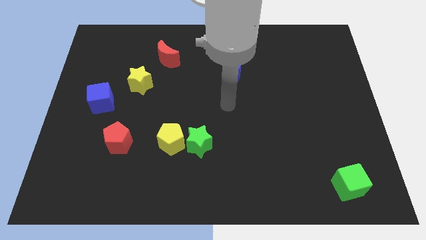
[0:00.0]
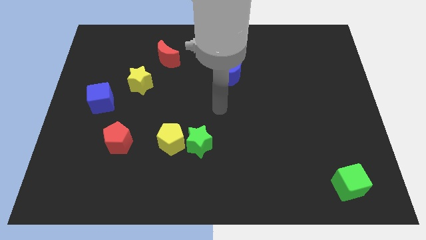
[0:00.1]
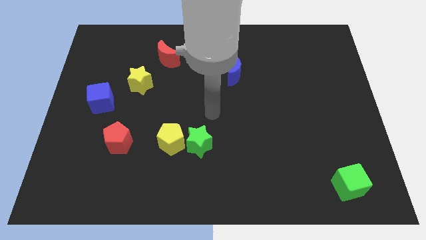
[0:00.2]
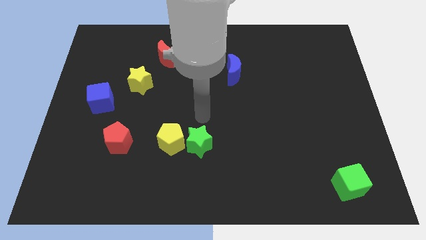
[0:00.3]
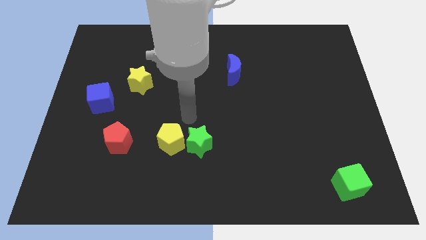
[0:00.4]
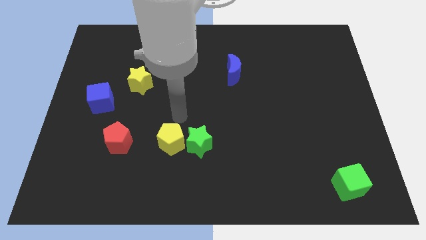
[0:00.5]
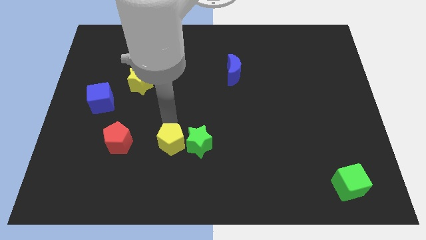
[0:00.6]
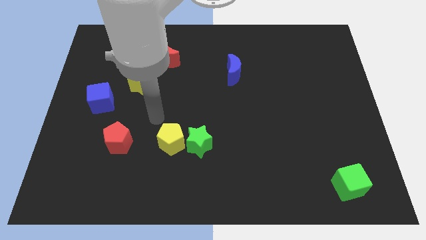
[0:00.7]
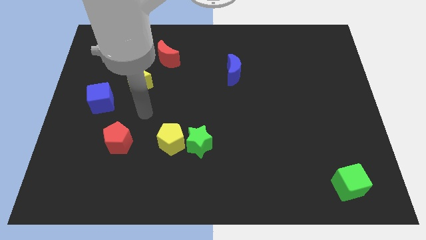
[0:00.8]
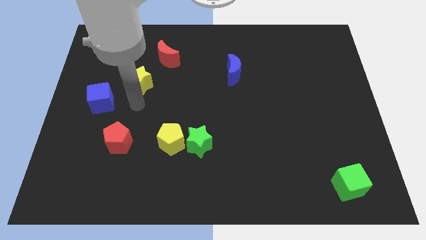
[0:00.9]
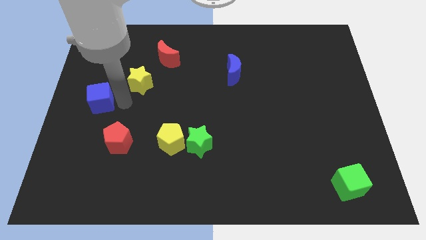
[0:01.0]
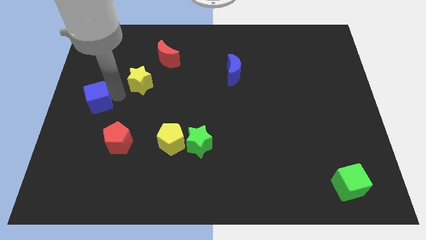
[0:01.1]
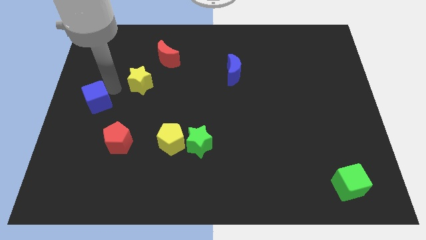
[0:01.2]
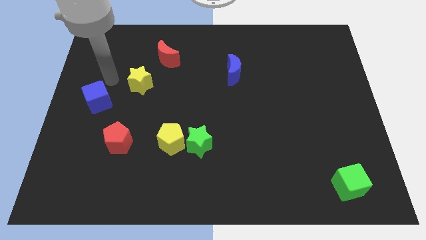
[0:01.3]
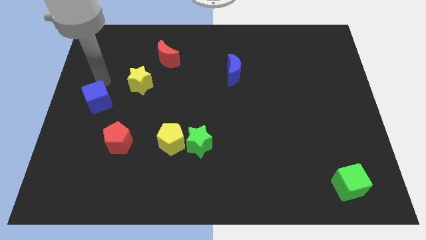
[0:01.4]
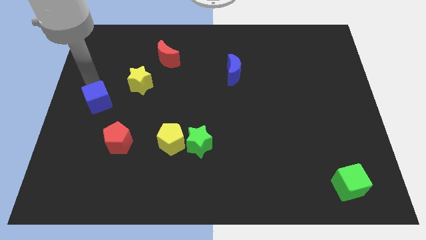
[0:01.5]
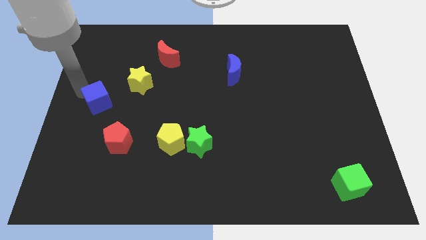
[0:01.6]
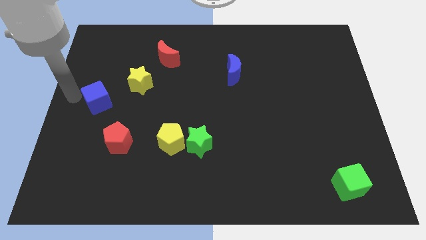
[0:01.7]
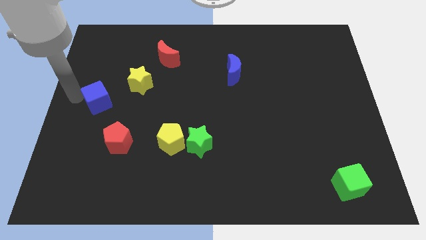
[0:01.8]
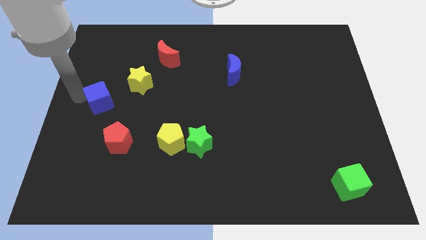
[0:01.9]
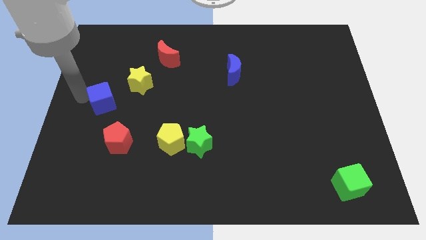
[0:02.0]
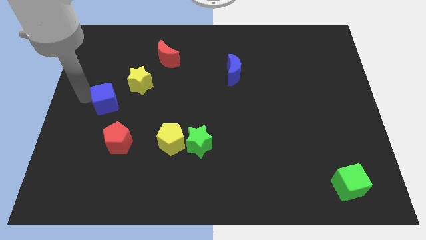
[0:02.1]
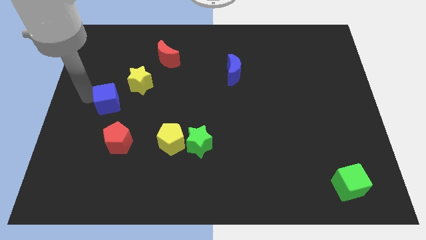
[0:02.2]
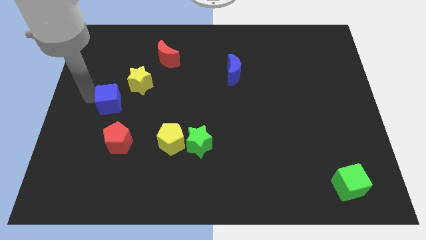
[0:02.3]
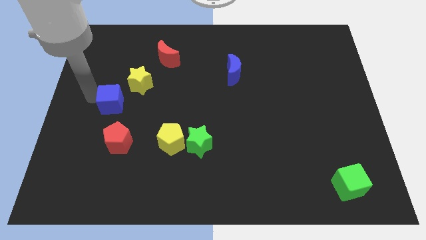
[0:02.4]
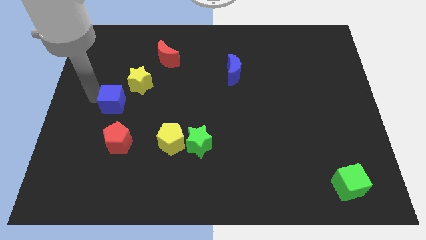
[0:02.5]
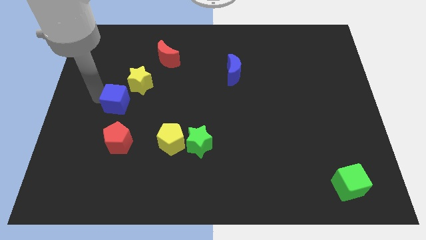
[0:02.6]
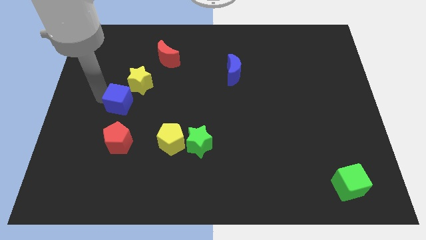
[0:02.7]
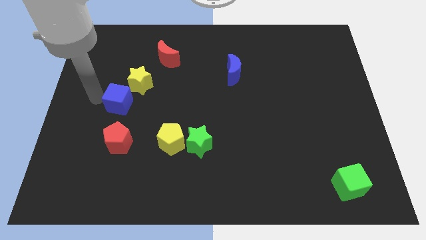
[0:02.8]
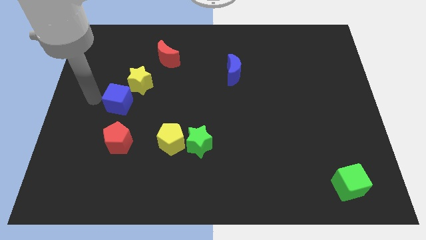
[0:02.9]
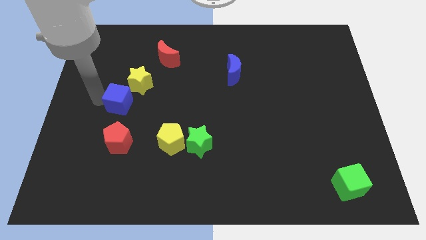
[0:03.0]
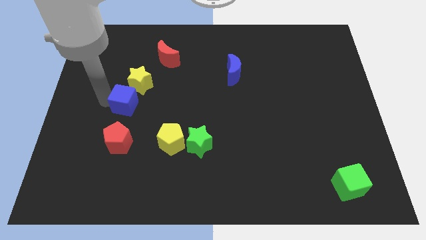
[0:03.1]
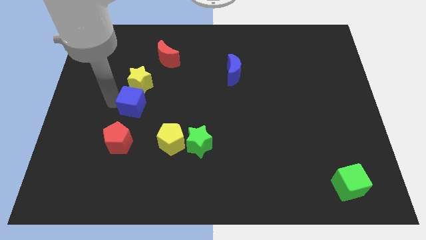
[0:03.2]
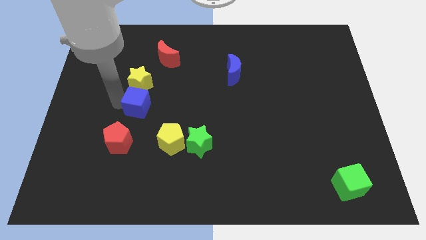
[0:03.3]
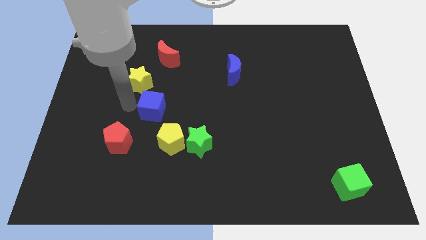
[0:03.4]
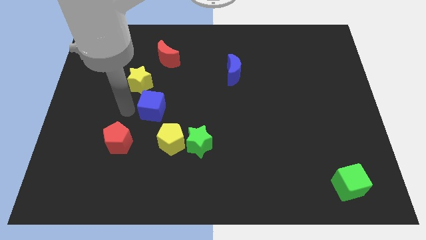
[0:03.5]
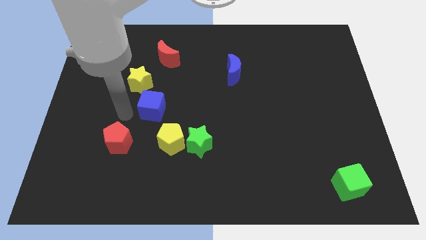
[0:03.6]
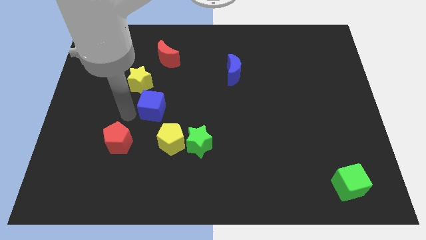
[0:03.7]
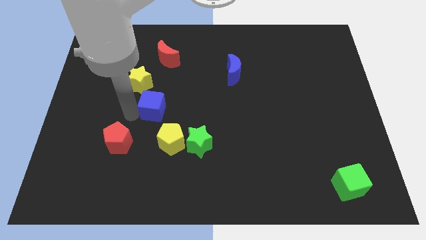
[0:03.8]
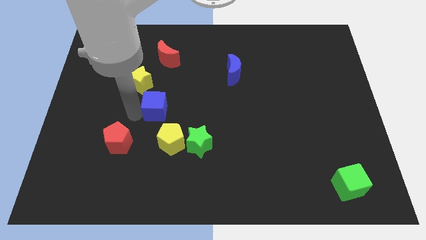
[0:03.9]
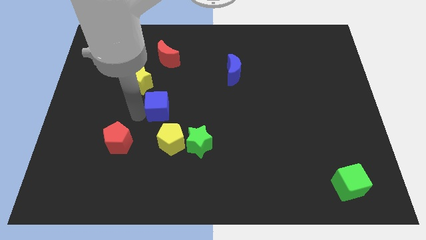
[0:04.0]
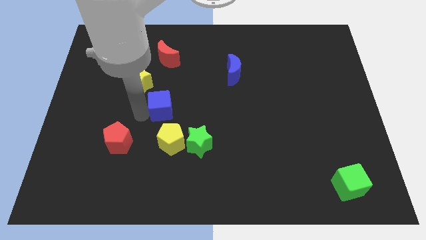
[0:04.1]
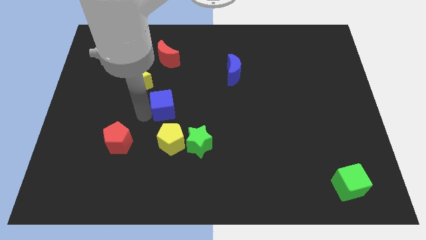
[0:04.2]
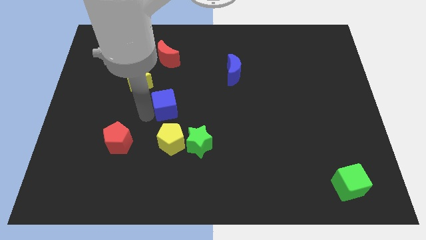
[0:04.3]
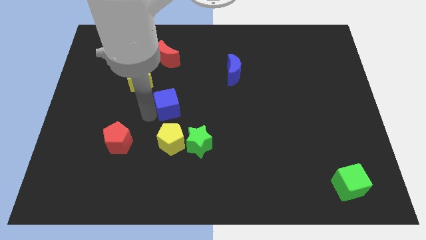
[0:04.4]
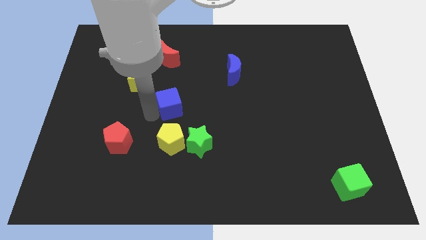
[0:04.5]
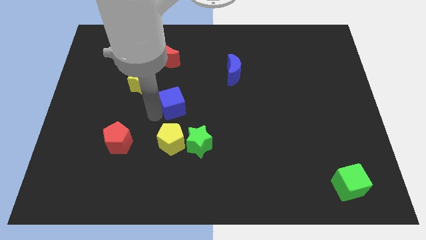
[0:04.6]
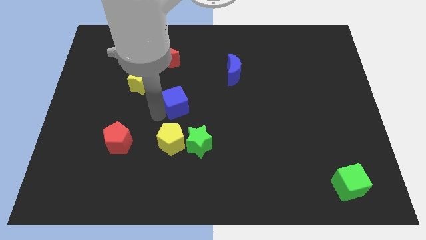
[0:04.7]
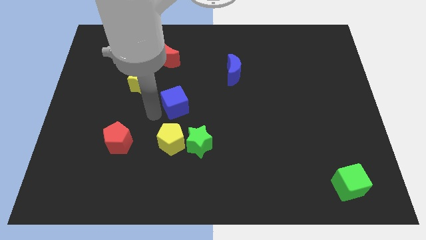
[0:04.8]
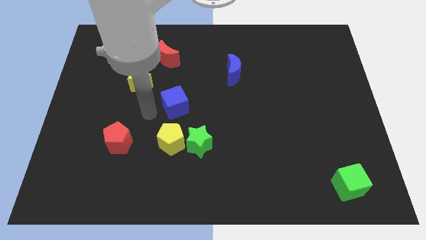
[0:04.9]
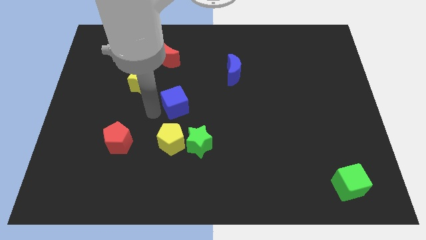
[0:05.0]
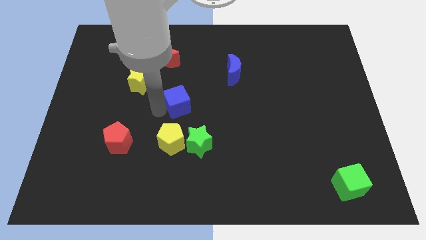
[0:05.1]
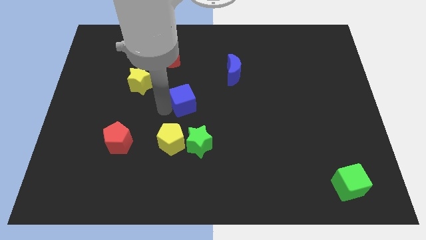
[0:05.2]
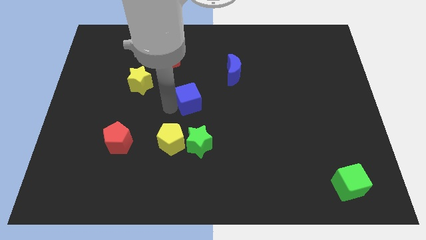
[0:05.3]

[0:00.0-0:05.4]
push the blue cube to the right

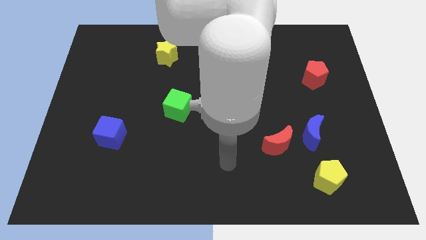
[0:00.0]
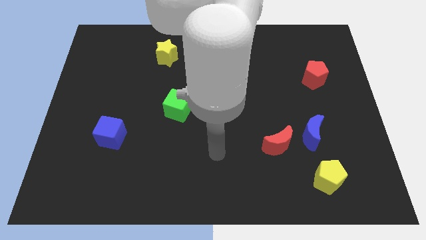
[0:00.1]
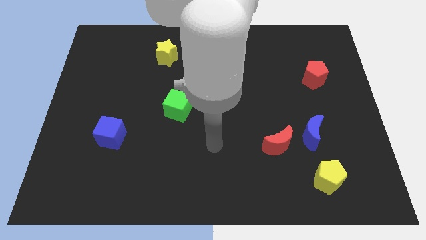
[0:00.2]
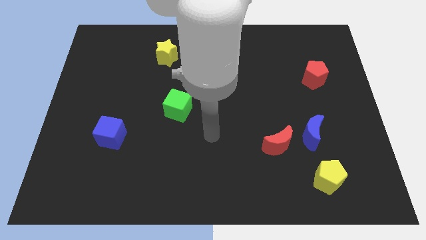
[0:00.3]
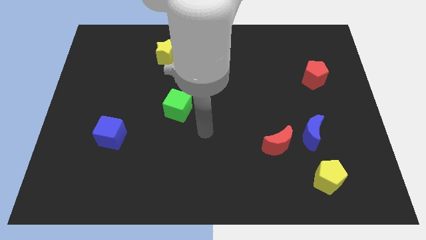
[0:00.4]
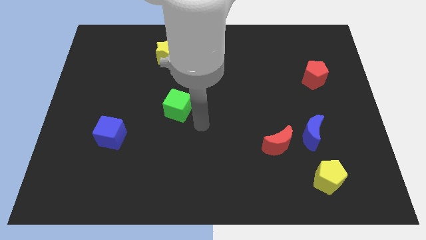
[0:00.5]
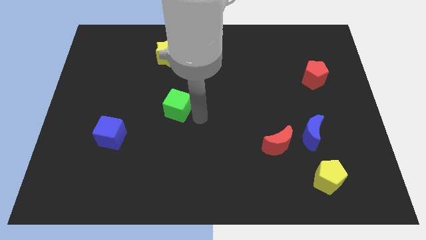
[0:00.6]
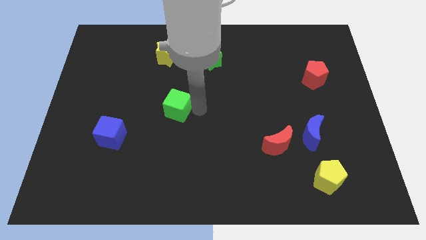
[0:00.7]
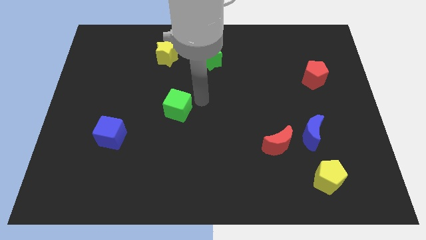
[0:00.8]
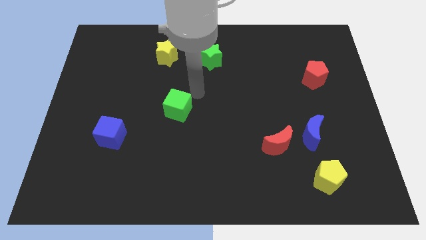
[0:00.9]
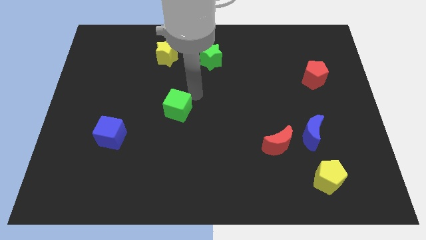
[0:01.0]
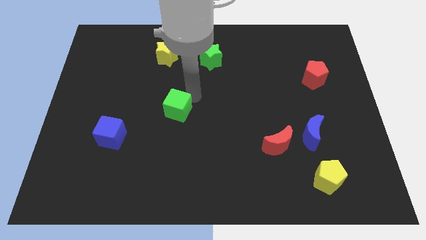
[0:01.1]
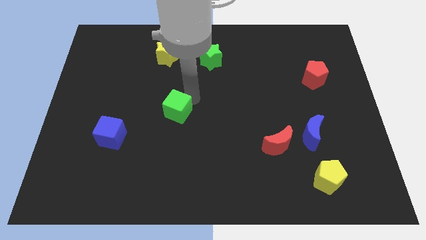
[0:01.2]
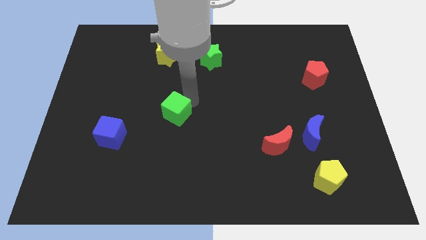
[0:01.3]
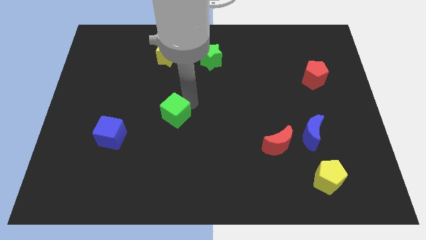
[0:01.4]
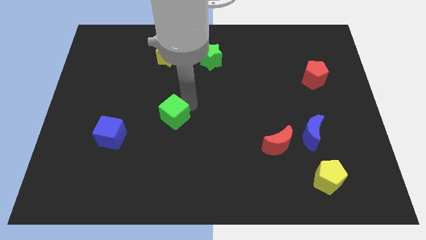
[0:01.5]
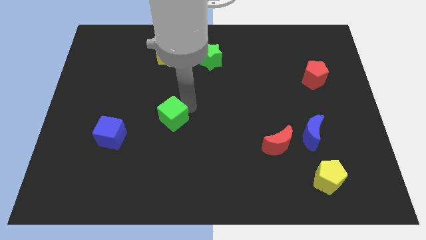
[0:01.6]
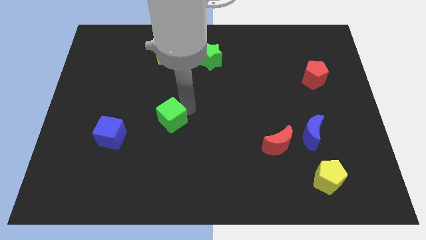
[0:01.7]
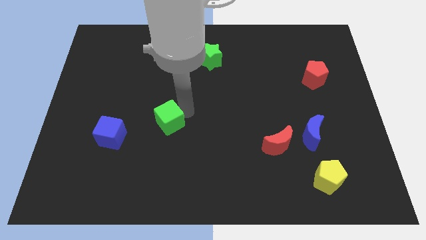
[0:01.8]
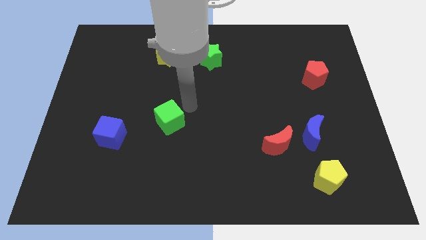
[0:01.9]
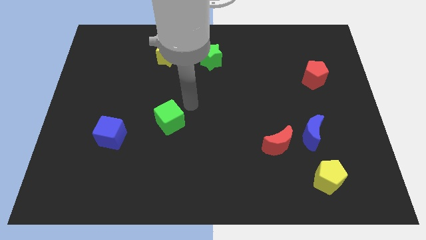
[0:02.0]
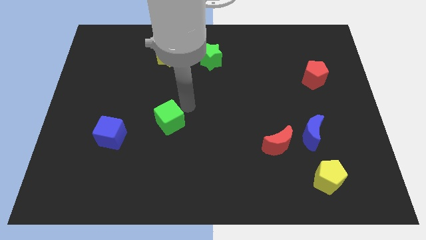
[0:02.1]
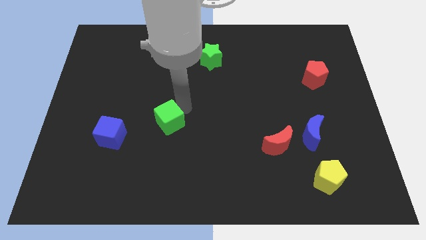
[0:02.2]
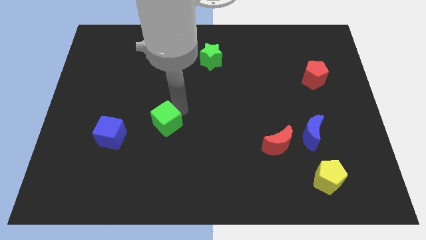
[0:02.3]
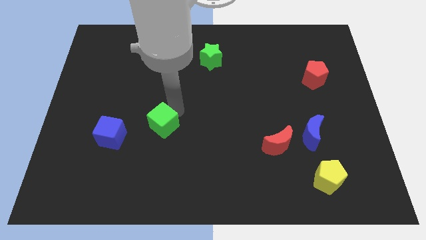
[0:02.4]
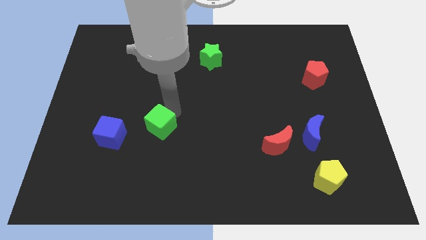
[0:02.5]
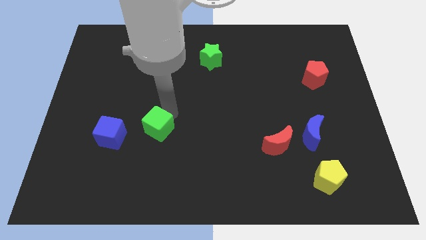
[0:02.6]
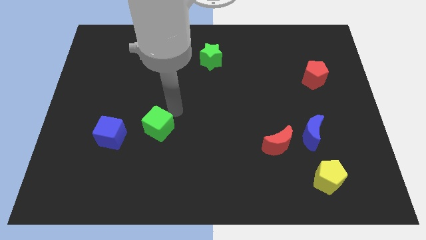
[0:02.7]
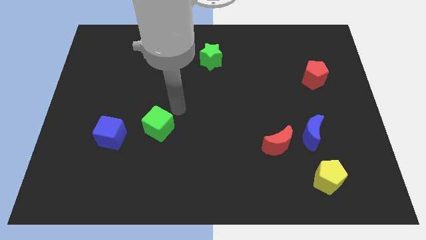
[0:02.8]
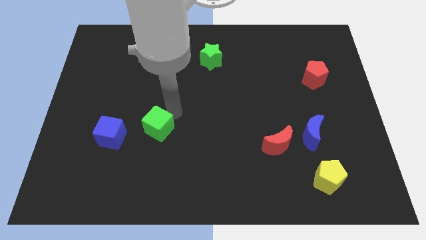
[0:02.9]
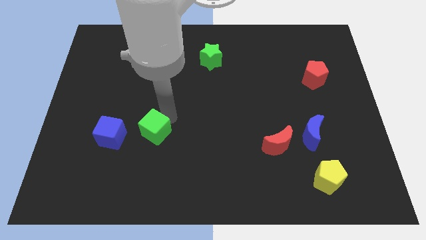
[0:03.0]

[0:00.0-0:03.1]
move the green cube a little bit diagonally downwards and to the left
